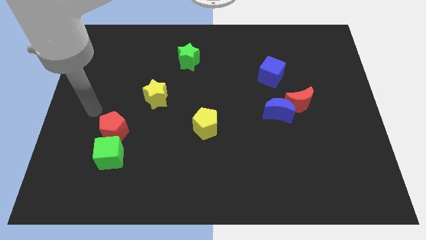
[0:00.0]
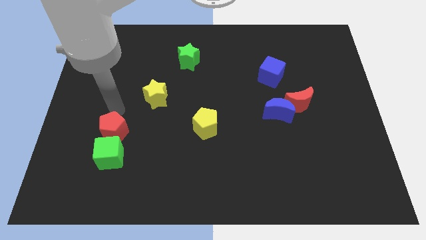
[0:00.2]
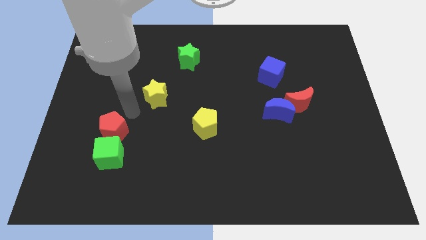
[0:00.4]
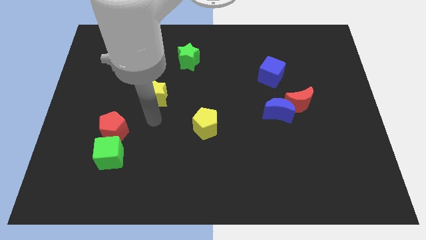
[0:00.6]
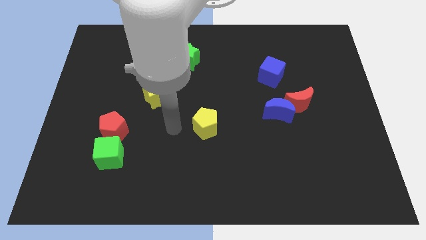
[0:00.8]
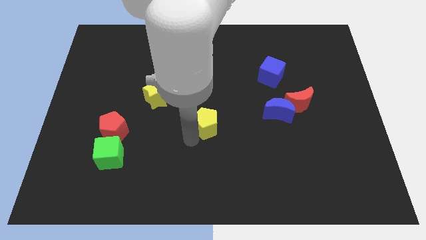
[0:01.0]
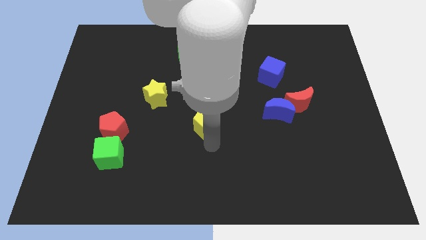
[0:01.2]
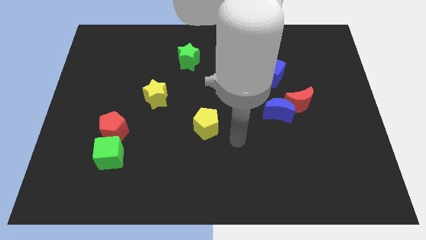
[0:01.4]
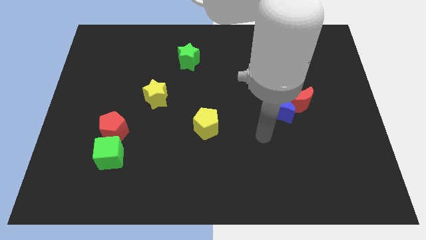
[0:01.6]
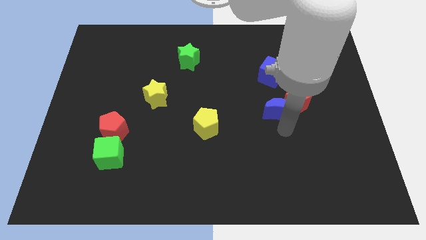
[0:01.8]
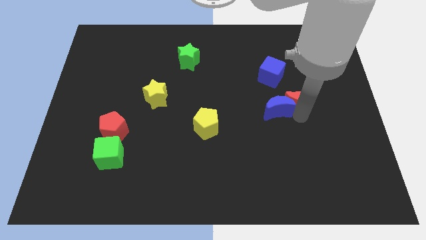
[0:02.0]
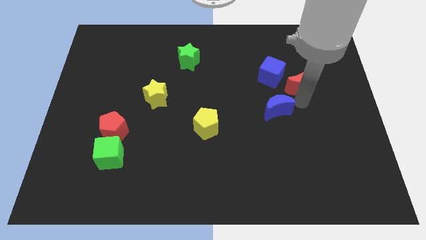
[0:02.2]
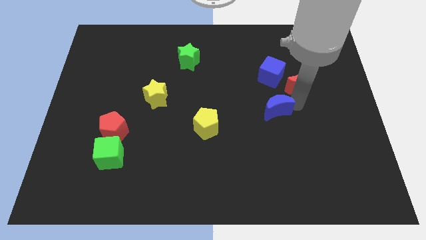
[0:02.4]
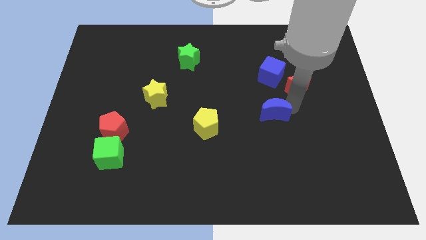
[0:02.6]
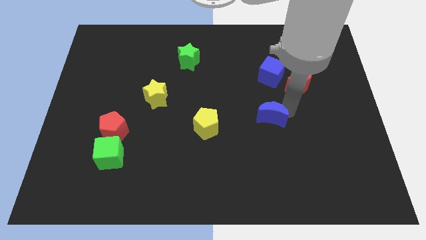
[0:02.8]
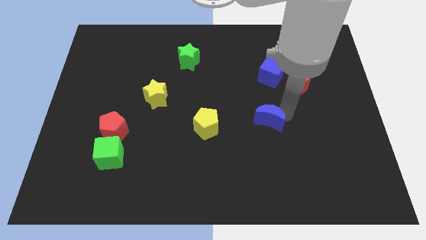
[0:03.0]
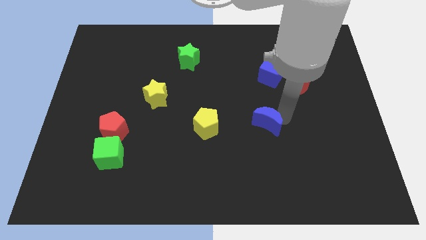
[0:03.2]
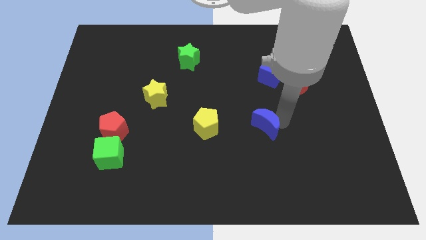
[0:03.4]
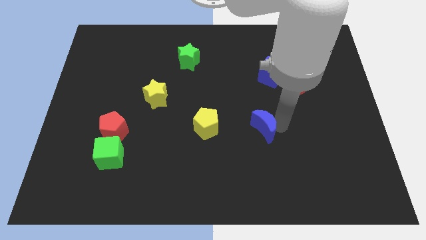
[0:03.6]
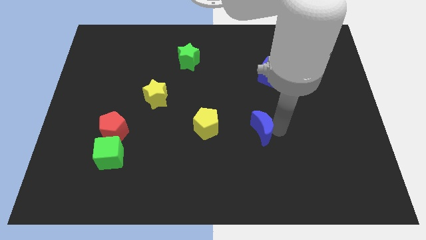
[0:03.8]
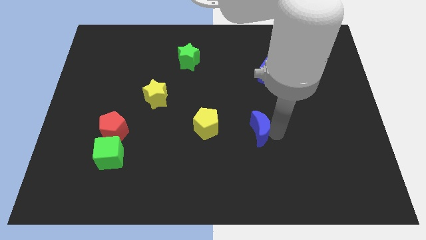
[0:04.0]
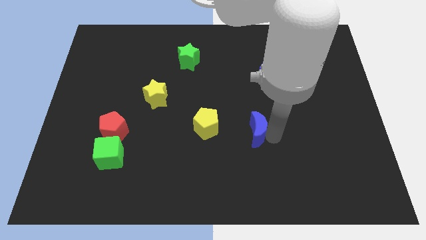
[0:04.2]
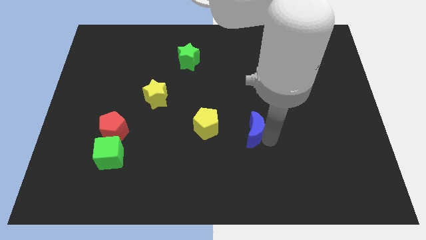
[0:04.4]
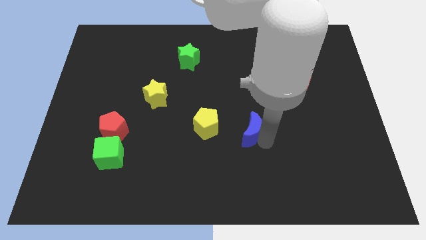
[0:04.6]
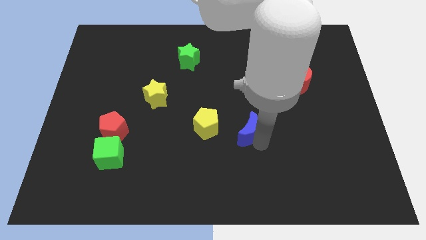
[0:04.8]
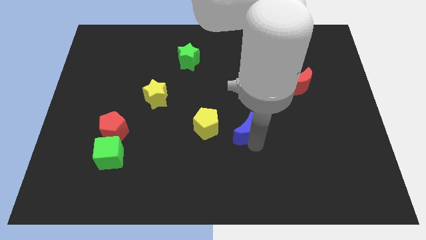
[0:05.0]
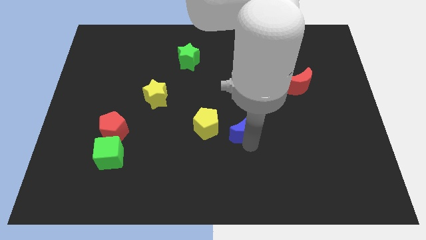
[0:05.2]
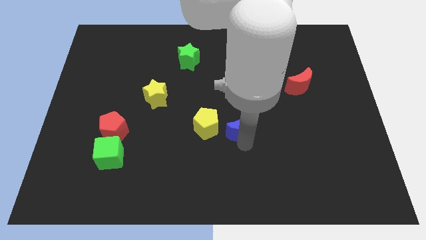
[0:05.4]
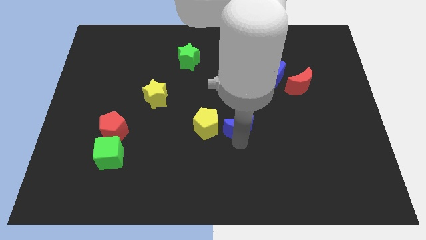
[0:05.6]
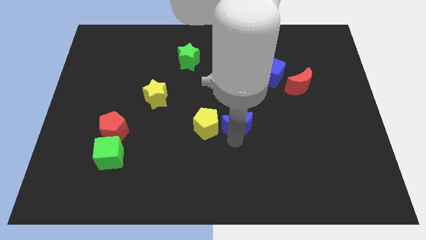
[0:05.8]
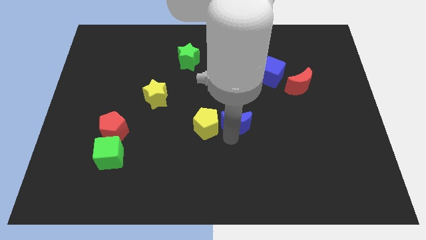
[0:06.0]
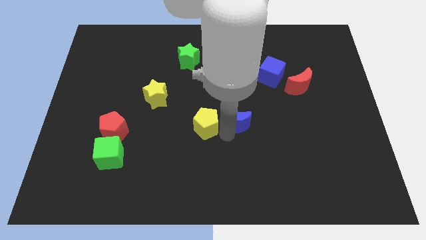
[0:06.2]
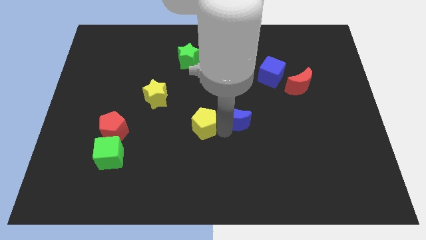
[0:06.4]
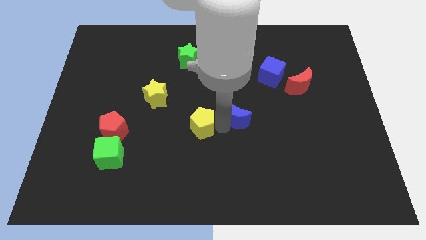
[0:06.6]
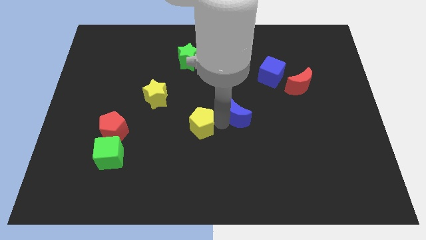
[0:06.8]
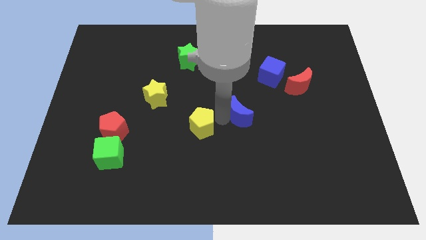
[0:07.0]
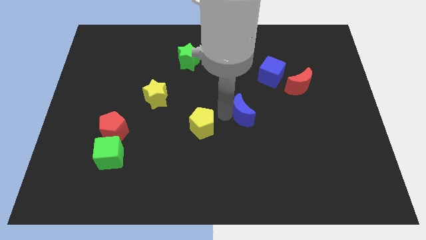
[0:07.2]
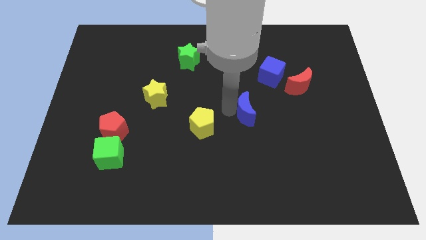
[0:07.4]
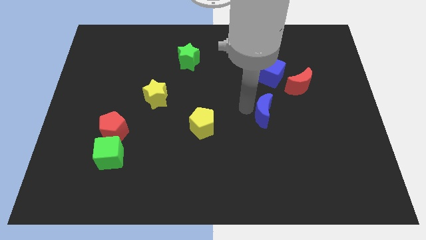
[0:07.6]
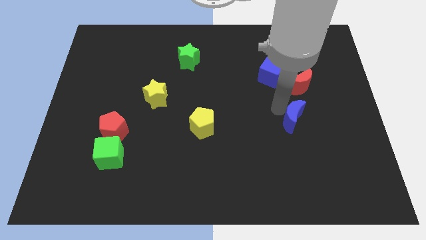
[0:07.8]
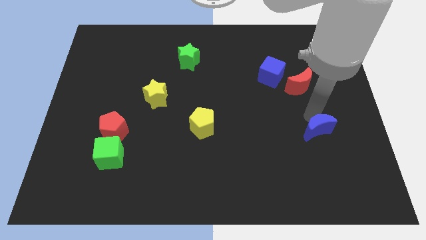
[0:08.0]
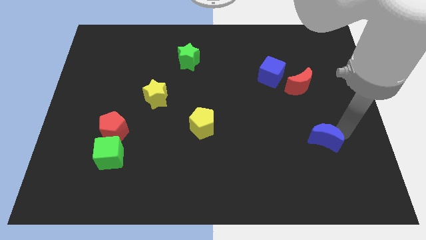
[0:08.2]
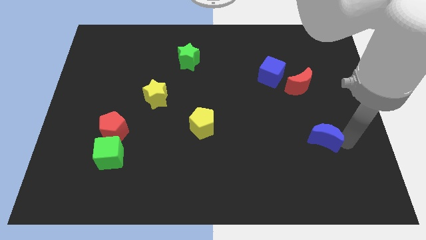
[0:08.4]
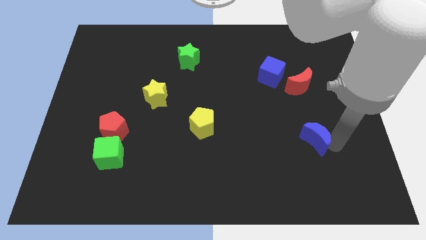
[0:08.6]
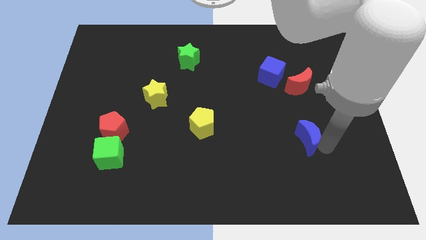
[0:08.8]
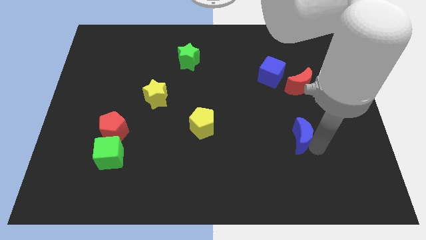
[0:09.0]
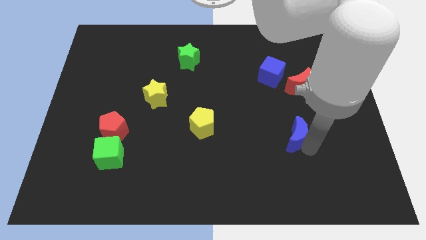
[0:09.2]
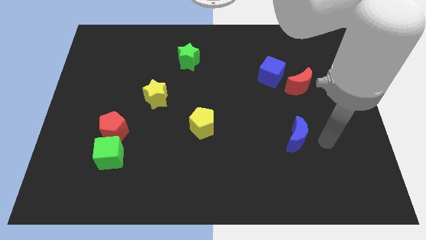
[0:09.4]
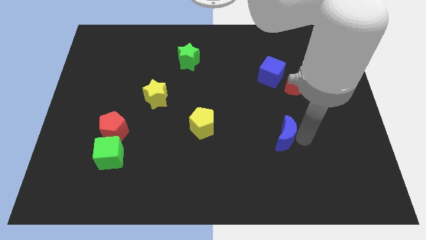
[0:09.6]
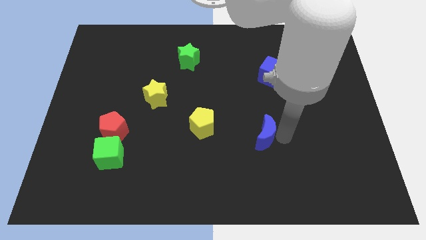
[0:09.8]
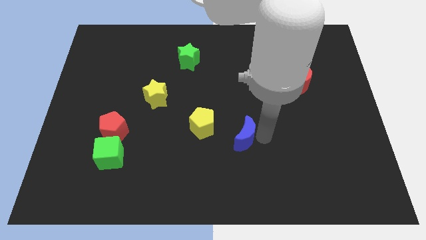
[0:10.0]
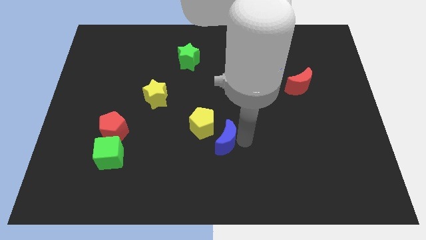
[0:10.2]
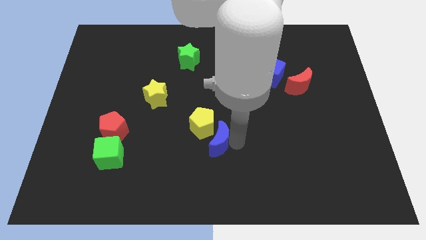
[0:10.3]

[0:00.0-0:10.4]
slide the blue moon close to the yellow pentagon

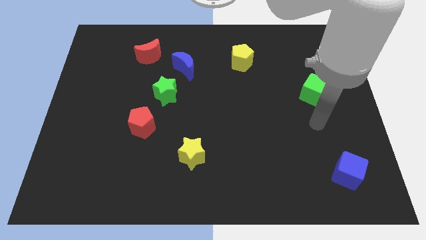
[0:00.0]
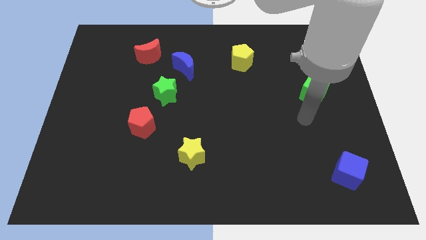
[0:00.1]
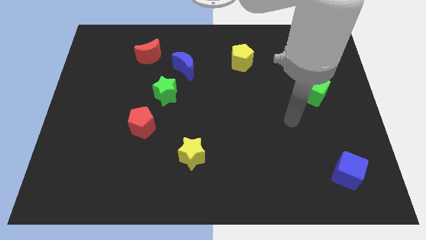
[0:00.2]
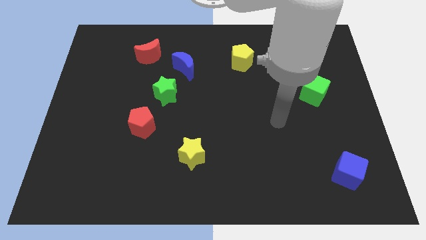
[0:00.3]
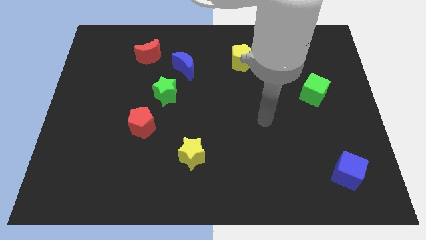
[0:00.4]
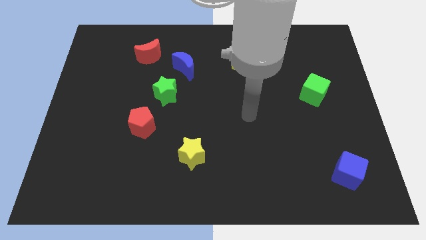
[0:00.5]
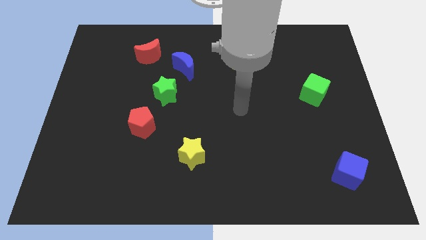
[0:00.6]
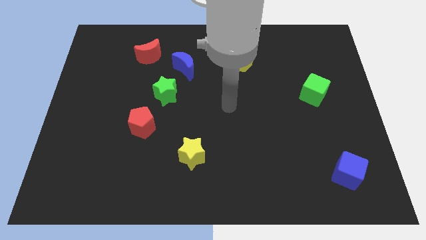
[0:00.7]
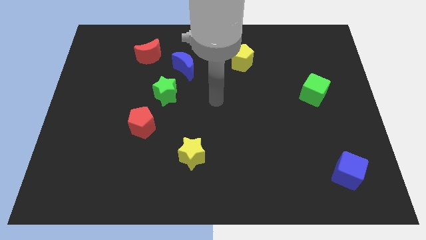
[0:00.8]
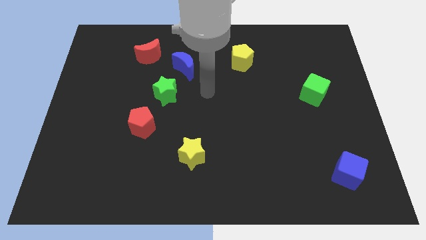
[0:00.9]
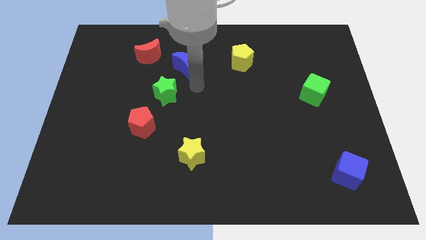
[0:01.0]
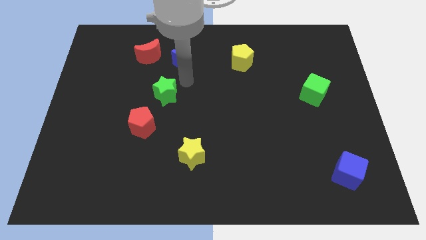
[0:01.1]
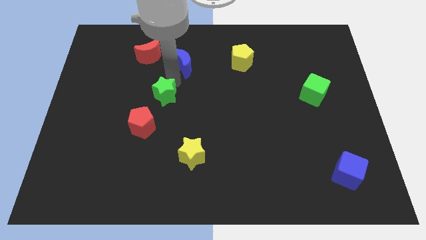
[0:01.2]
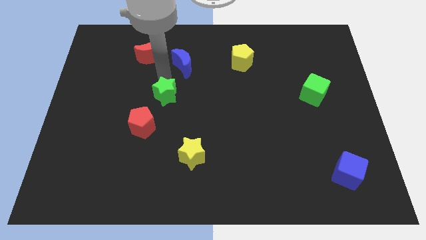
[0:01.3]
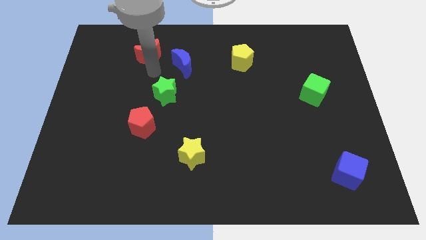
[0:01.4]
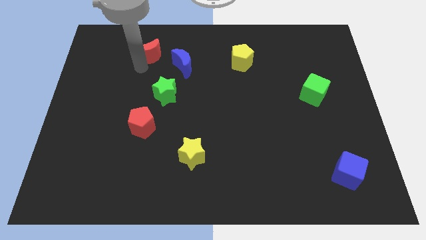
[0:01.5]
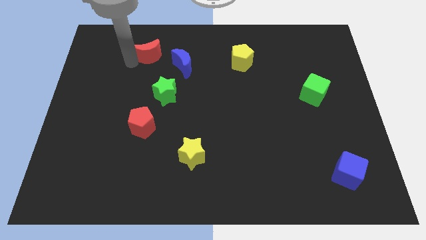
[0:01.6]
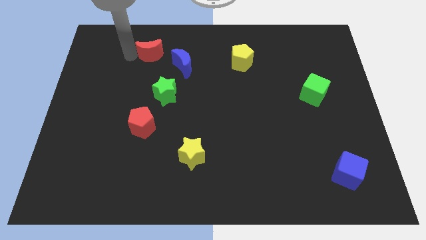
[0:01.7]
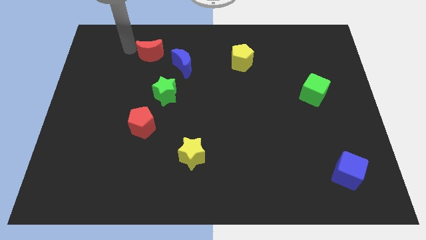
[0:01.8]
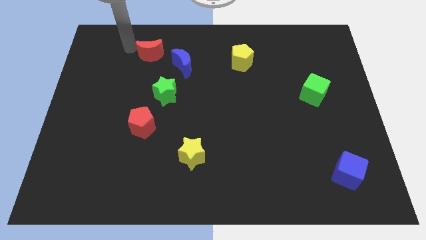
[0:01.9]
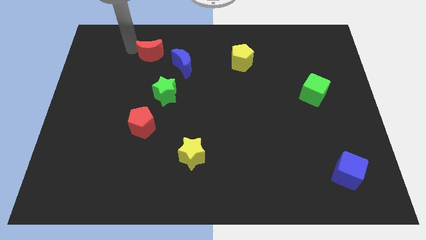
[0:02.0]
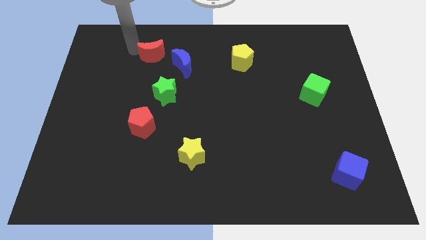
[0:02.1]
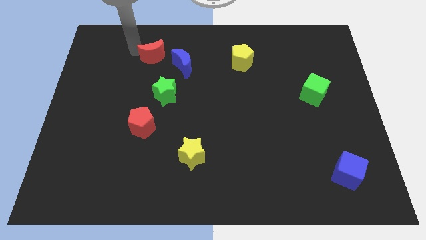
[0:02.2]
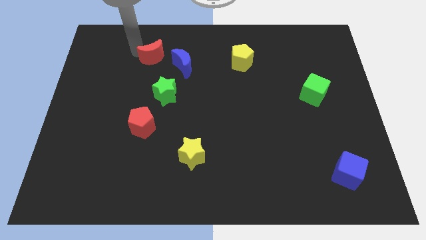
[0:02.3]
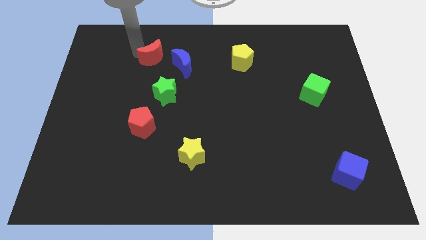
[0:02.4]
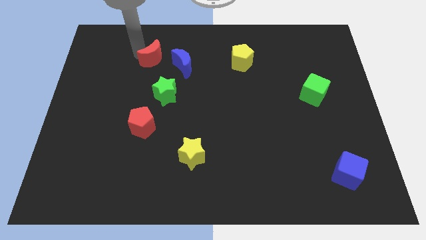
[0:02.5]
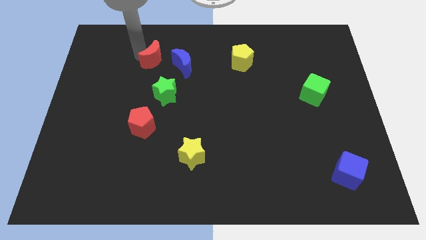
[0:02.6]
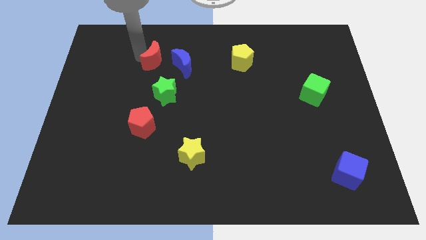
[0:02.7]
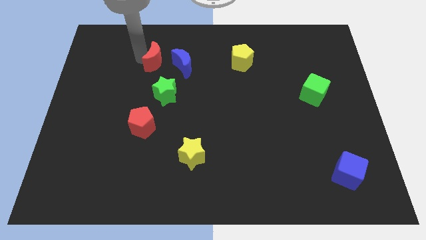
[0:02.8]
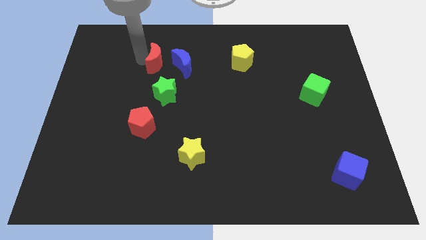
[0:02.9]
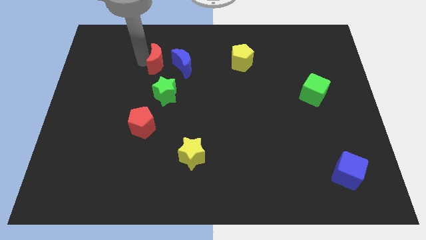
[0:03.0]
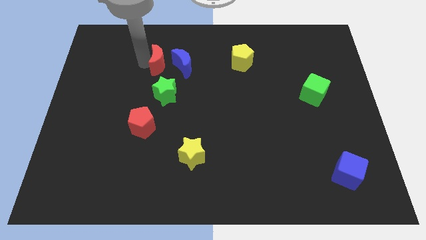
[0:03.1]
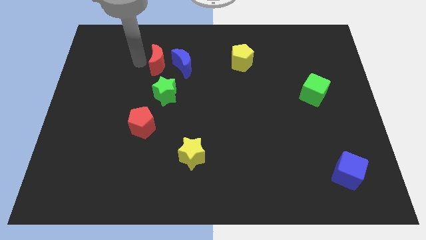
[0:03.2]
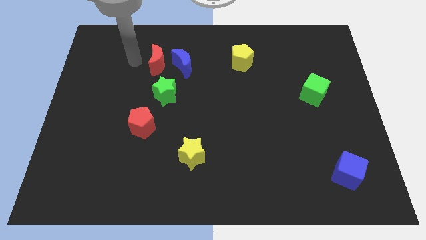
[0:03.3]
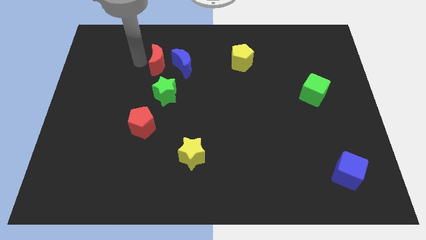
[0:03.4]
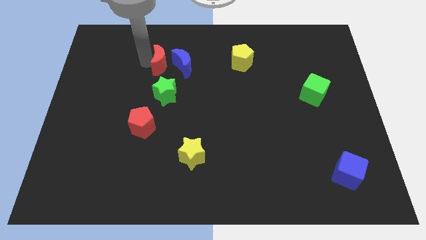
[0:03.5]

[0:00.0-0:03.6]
move the red moon to the blue moon
